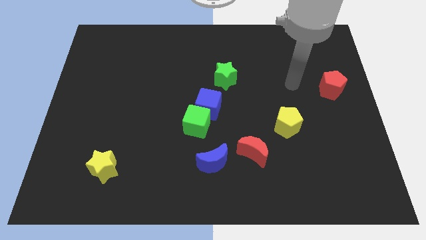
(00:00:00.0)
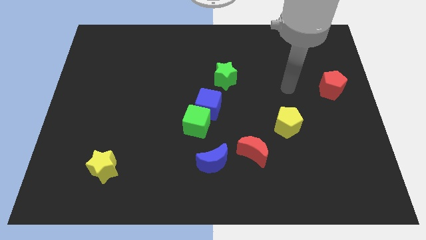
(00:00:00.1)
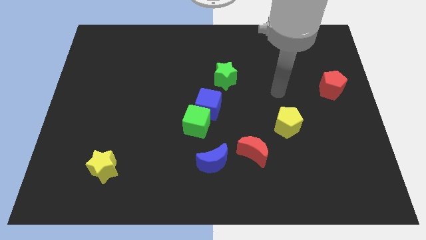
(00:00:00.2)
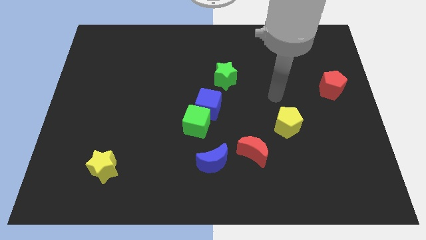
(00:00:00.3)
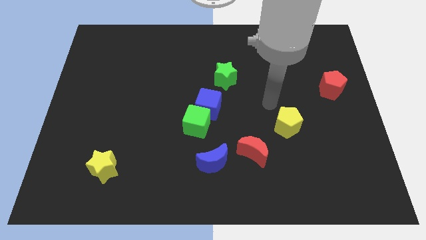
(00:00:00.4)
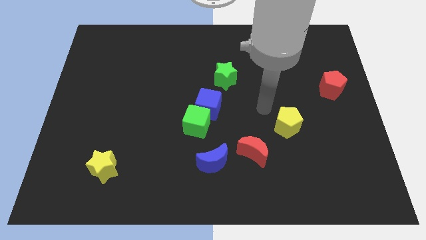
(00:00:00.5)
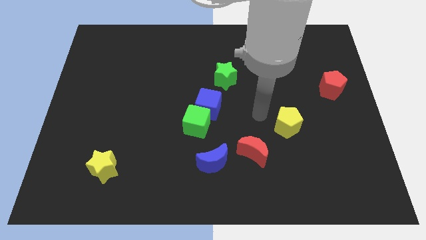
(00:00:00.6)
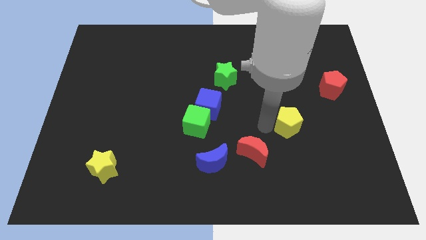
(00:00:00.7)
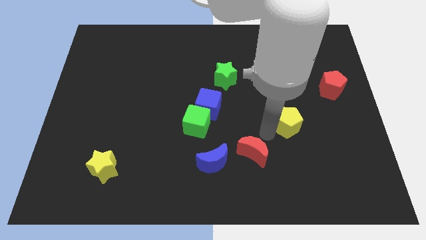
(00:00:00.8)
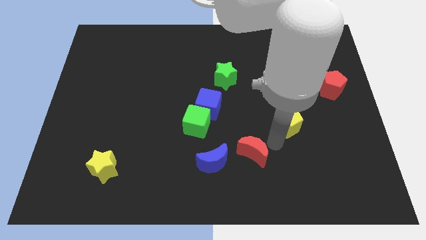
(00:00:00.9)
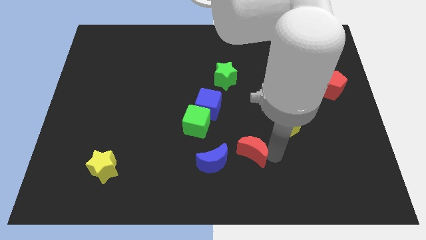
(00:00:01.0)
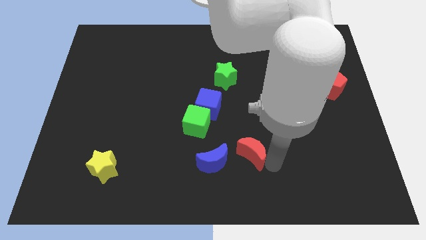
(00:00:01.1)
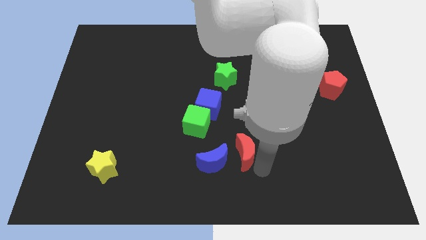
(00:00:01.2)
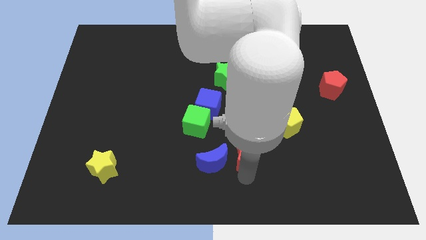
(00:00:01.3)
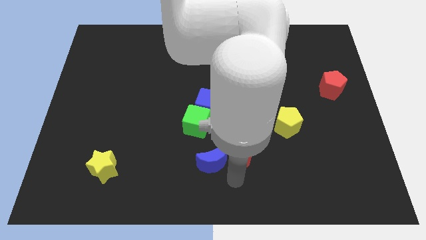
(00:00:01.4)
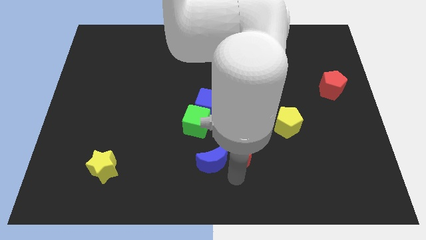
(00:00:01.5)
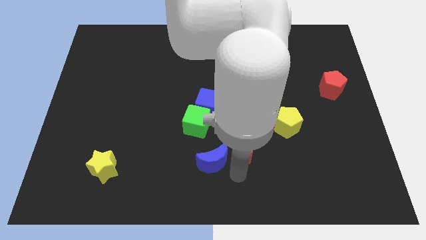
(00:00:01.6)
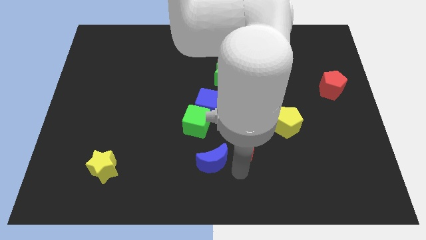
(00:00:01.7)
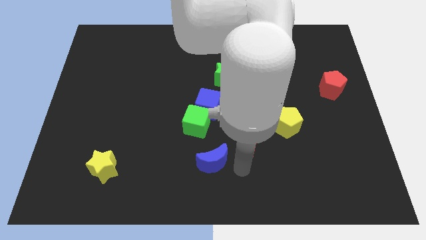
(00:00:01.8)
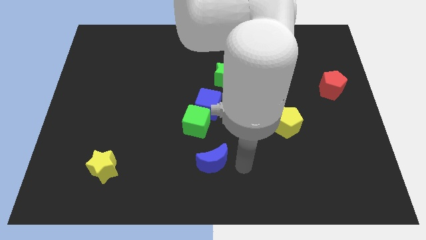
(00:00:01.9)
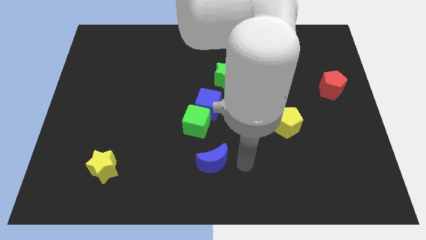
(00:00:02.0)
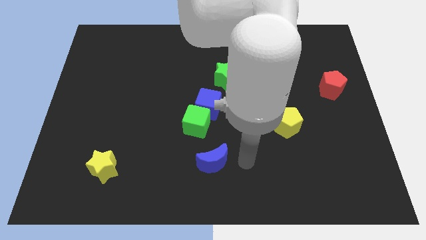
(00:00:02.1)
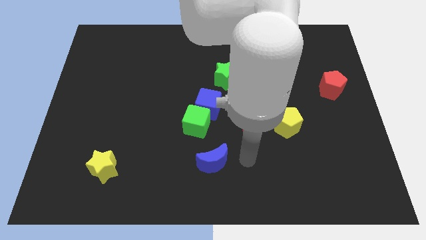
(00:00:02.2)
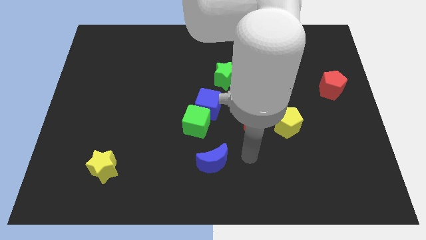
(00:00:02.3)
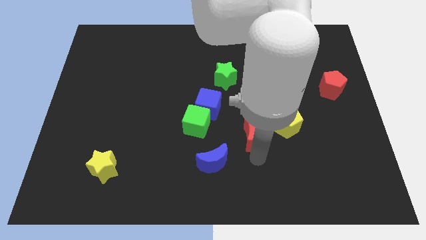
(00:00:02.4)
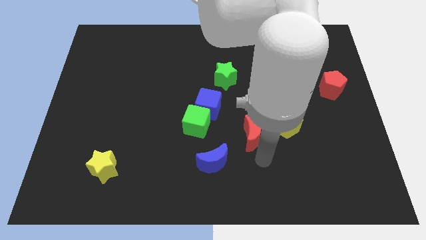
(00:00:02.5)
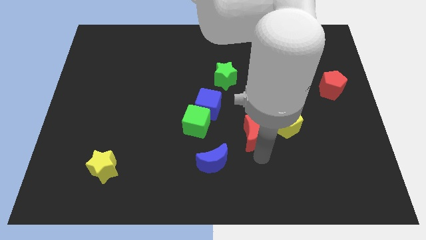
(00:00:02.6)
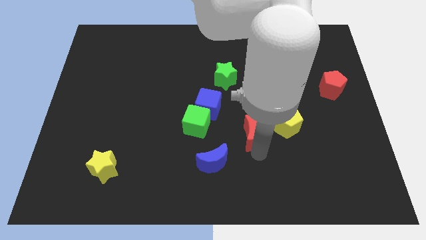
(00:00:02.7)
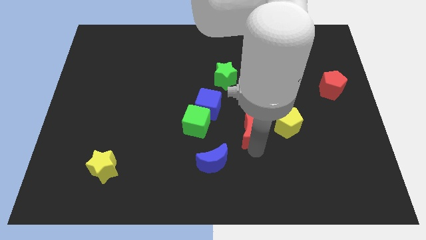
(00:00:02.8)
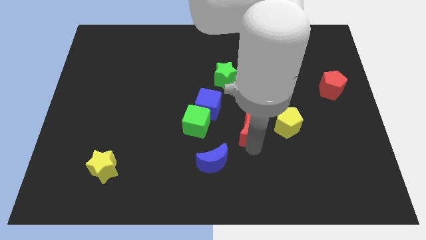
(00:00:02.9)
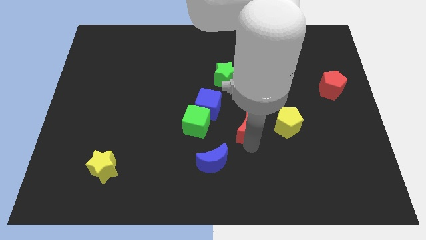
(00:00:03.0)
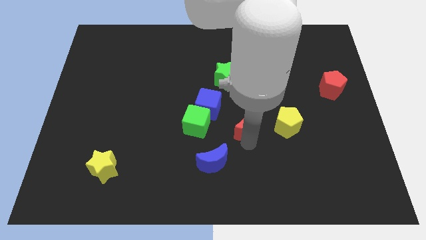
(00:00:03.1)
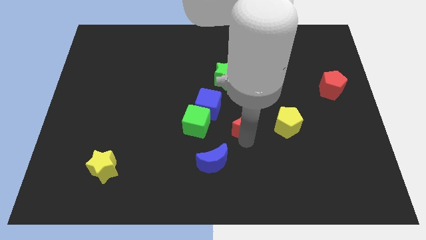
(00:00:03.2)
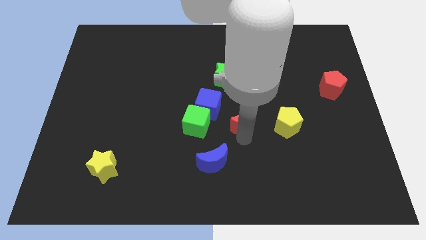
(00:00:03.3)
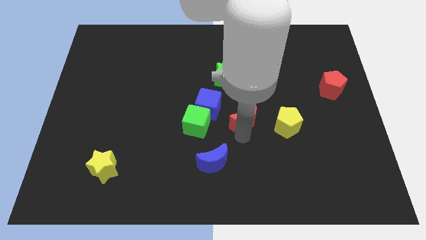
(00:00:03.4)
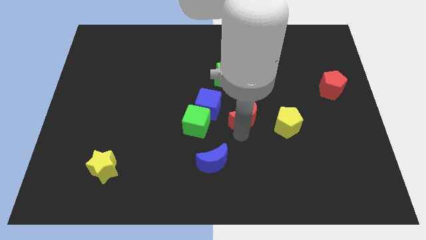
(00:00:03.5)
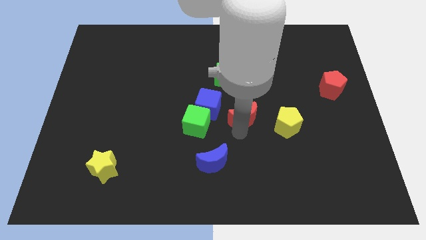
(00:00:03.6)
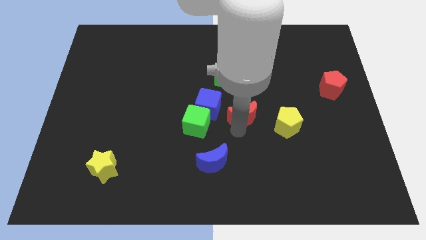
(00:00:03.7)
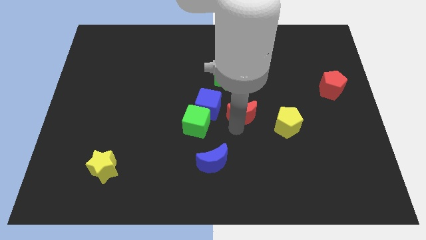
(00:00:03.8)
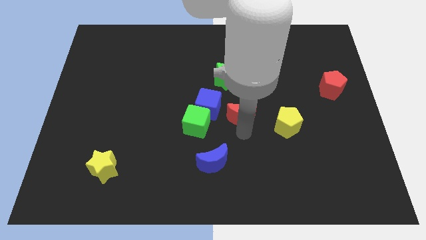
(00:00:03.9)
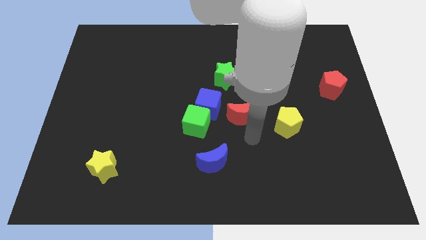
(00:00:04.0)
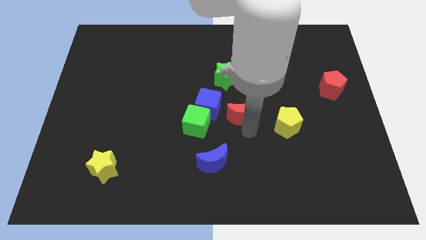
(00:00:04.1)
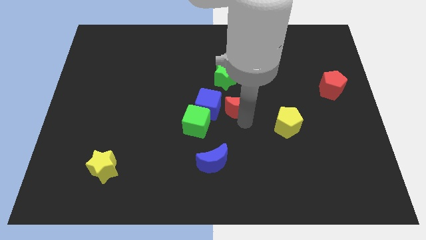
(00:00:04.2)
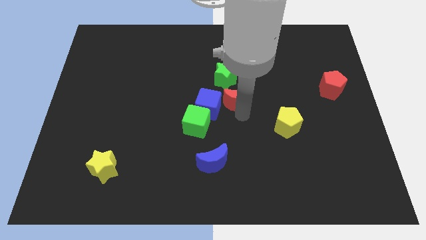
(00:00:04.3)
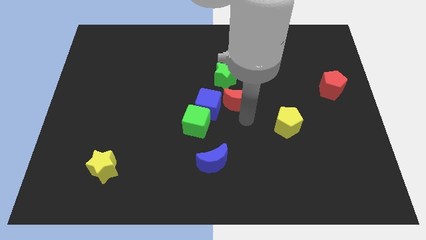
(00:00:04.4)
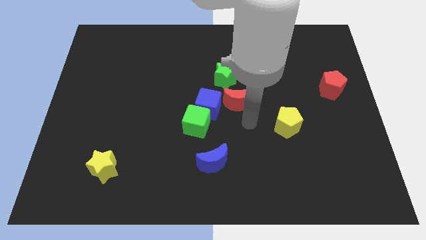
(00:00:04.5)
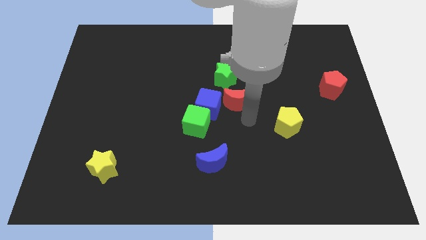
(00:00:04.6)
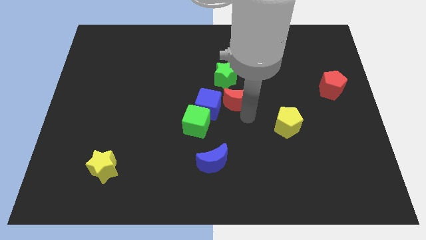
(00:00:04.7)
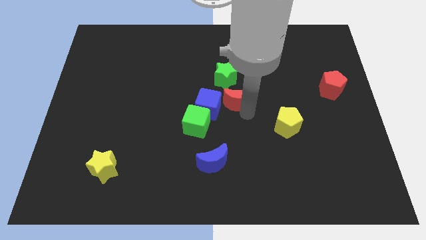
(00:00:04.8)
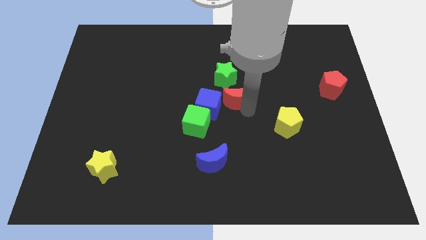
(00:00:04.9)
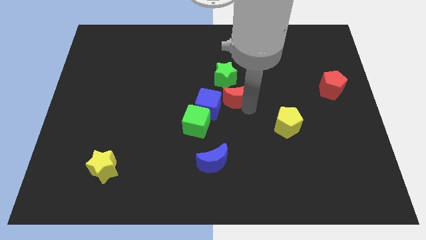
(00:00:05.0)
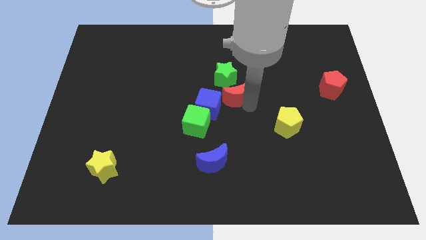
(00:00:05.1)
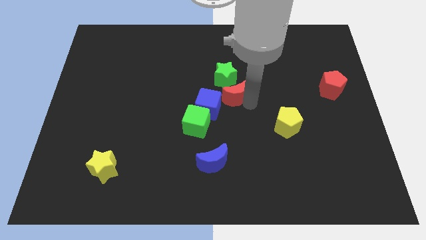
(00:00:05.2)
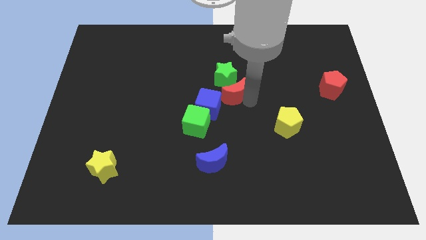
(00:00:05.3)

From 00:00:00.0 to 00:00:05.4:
push the red moon next to the green star

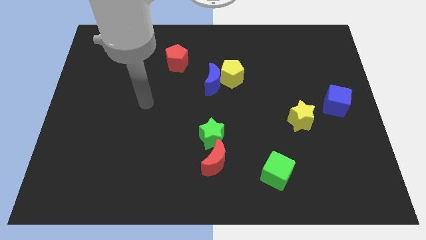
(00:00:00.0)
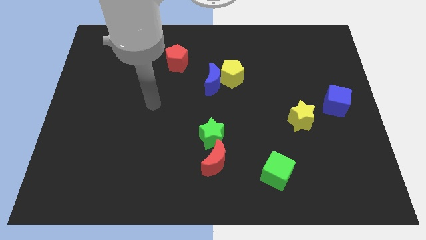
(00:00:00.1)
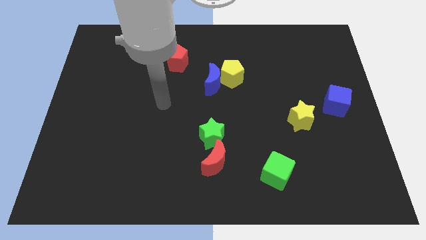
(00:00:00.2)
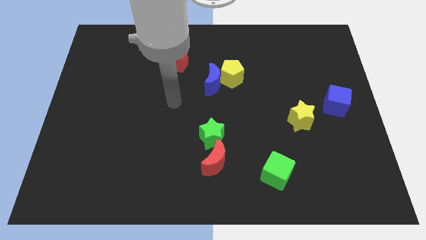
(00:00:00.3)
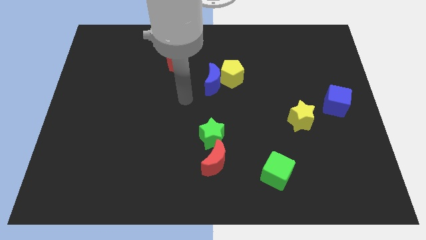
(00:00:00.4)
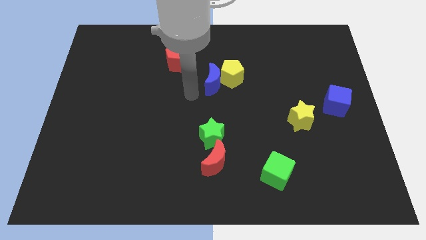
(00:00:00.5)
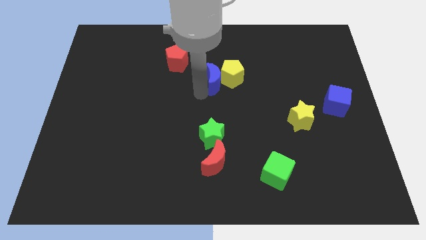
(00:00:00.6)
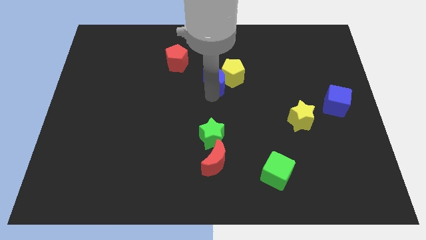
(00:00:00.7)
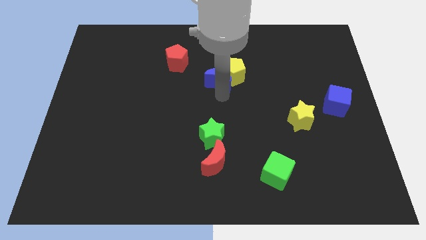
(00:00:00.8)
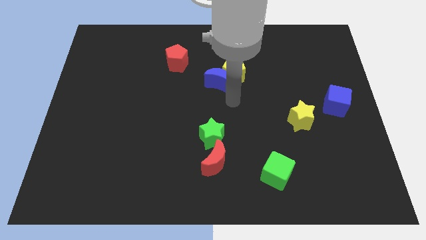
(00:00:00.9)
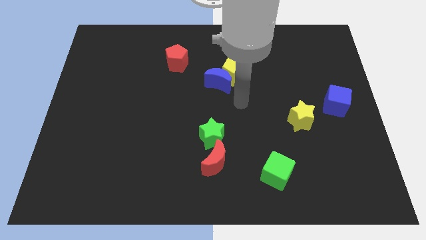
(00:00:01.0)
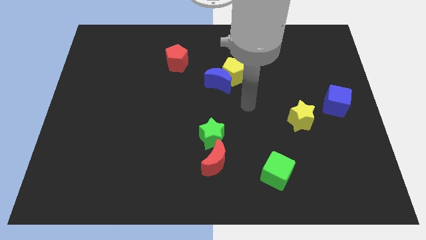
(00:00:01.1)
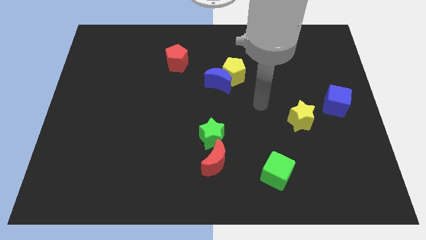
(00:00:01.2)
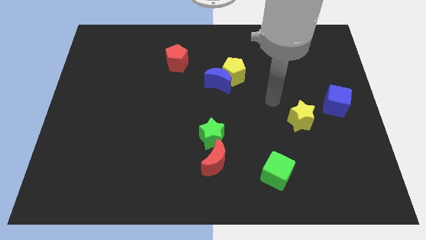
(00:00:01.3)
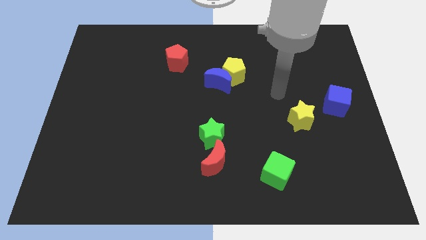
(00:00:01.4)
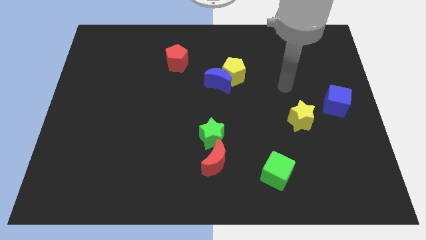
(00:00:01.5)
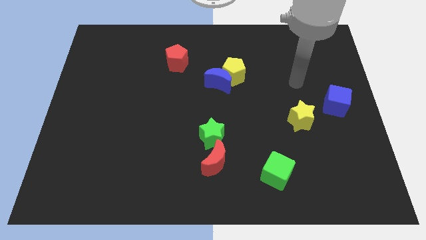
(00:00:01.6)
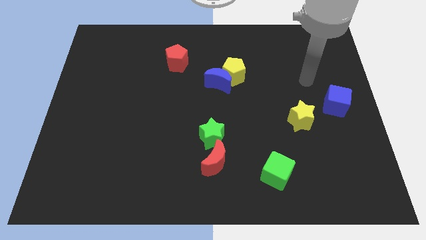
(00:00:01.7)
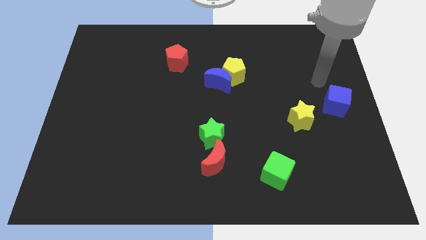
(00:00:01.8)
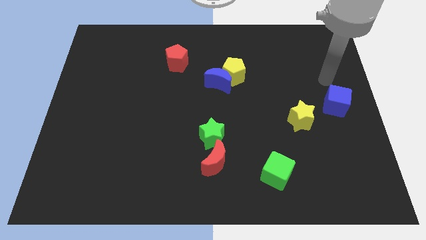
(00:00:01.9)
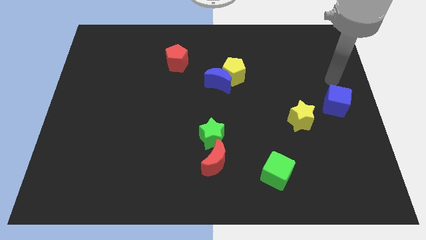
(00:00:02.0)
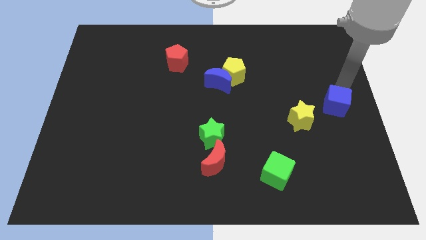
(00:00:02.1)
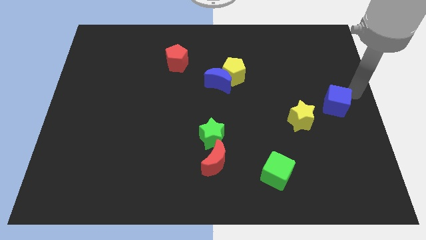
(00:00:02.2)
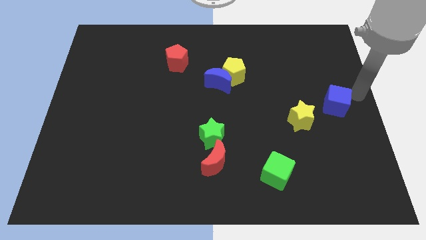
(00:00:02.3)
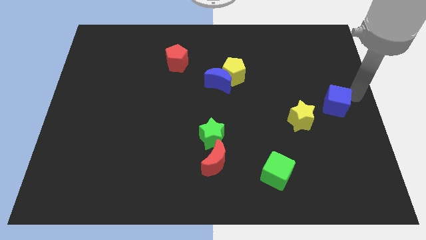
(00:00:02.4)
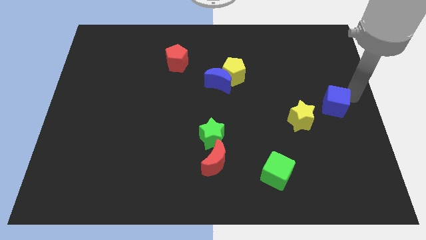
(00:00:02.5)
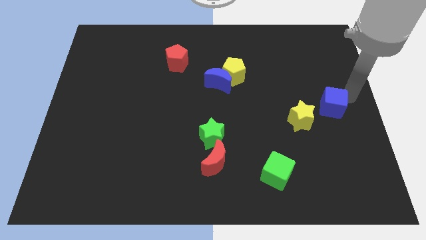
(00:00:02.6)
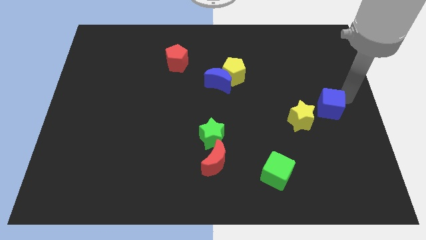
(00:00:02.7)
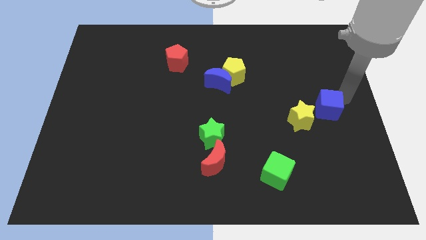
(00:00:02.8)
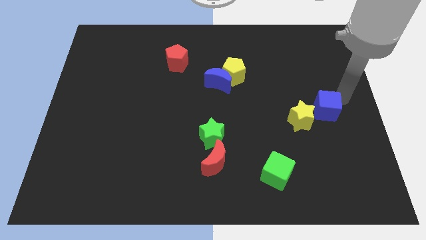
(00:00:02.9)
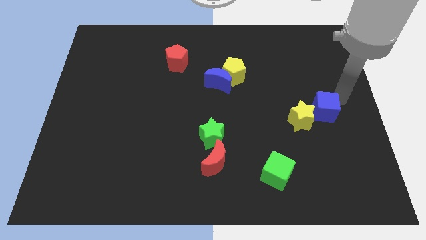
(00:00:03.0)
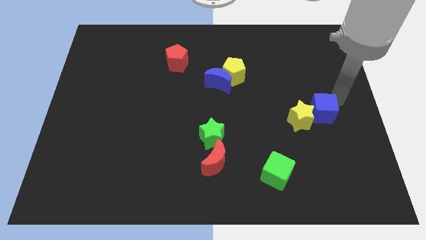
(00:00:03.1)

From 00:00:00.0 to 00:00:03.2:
move the blue cube close to the yellow star
